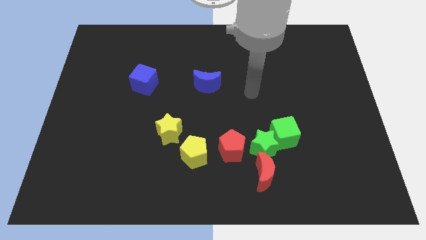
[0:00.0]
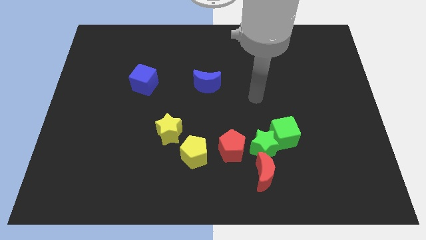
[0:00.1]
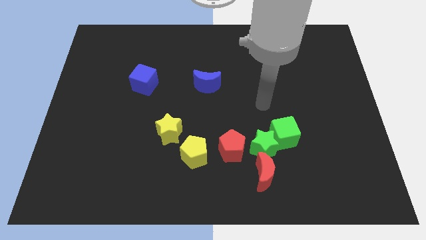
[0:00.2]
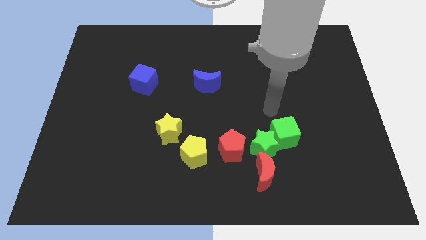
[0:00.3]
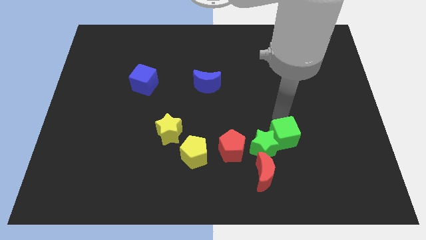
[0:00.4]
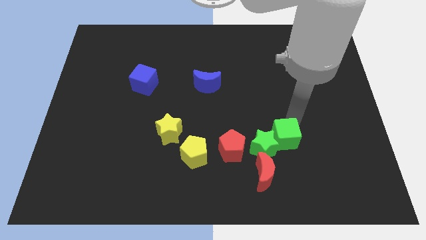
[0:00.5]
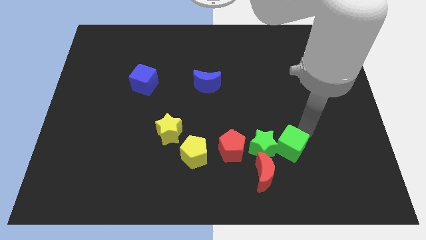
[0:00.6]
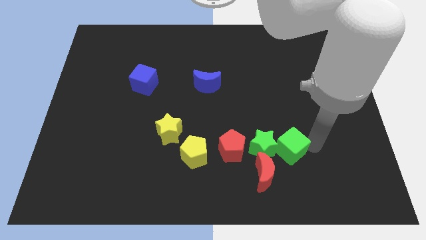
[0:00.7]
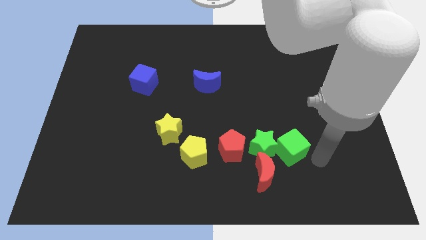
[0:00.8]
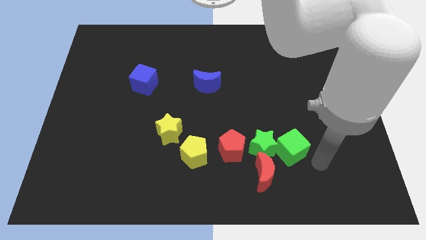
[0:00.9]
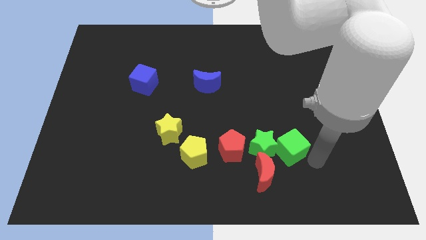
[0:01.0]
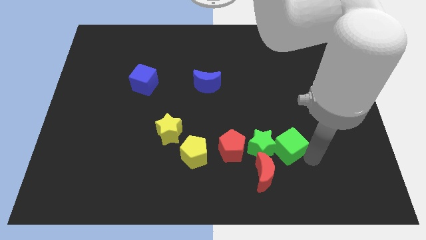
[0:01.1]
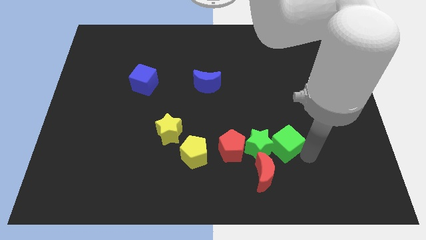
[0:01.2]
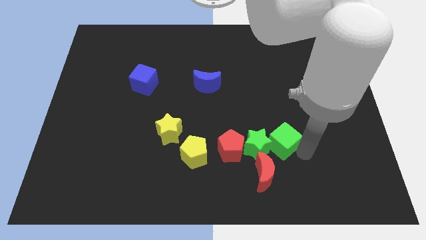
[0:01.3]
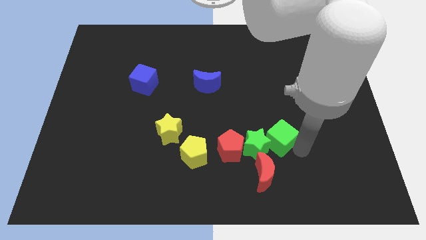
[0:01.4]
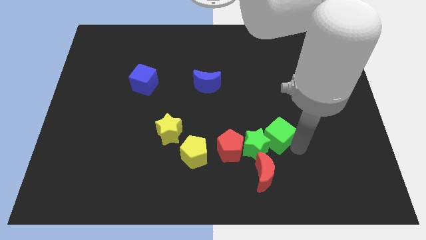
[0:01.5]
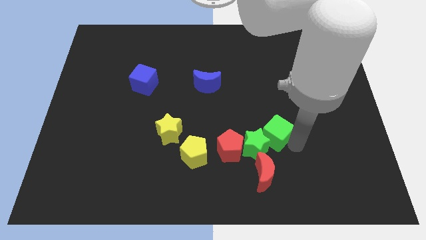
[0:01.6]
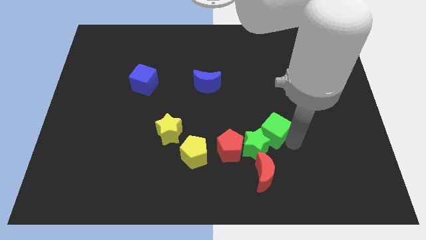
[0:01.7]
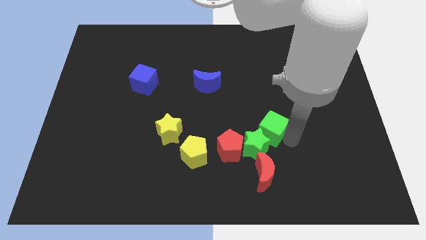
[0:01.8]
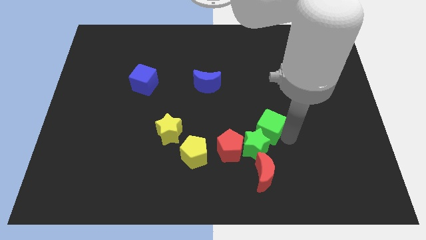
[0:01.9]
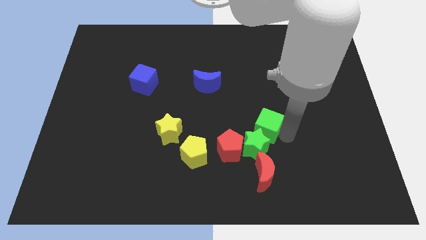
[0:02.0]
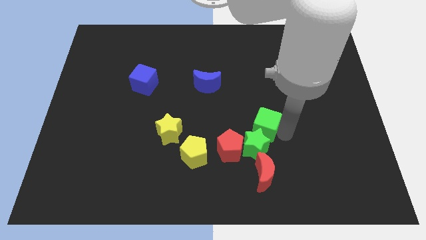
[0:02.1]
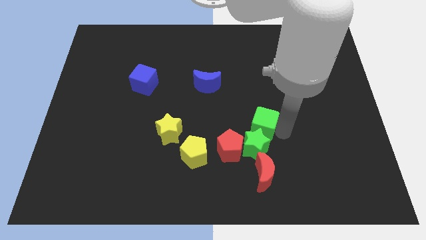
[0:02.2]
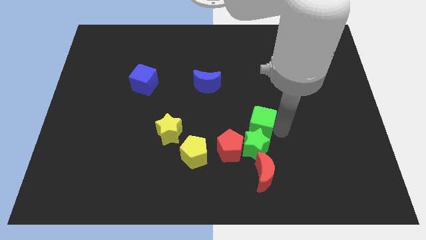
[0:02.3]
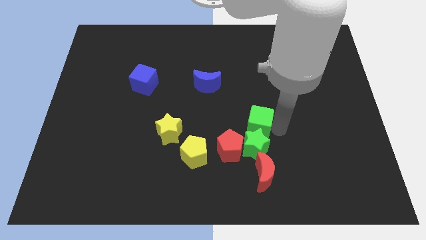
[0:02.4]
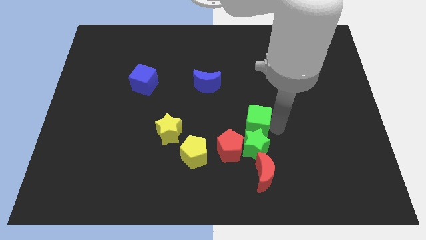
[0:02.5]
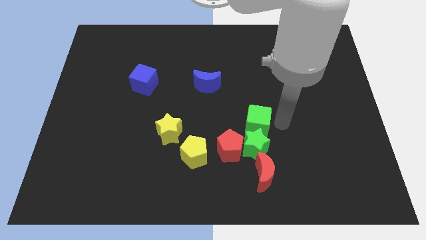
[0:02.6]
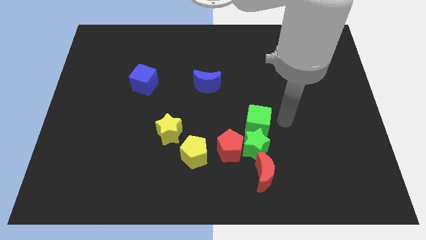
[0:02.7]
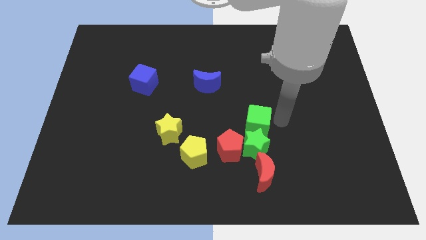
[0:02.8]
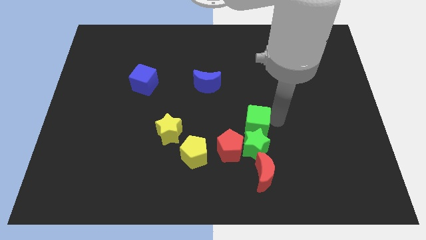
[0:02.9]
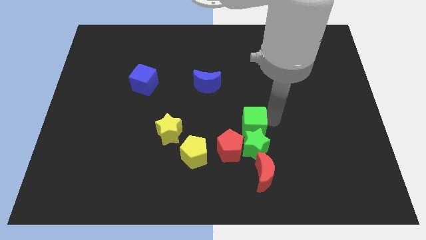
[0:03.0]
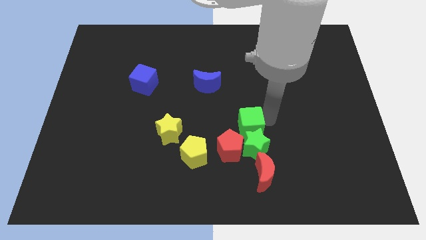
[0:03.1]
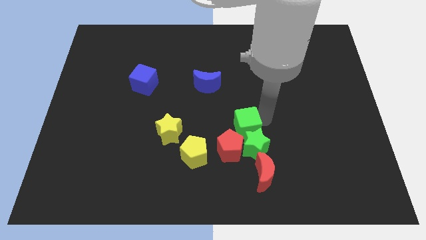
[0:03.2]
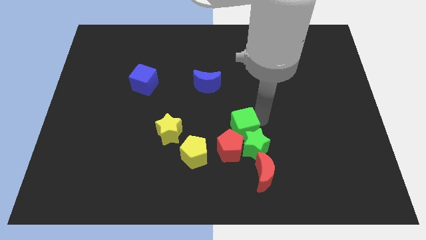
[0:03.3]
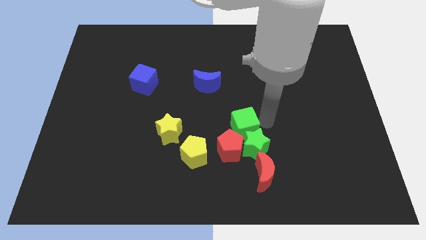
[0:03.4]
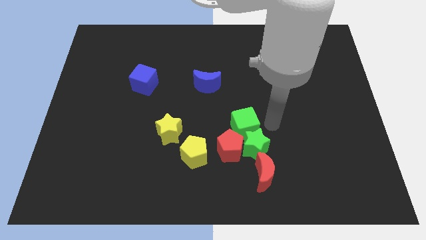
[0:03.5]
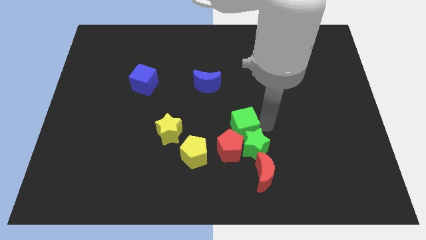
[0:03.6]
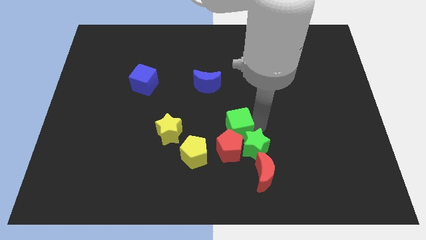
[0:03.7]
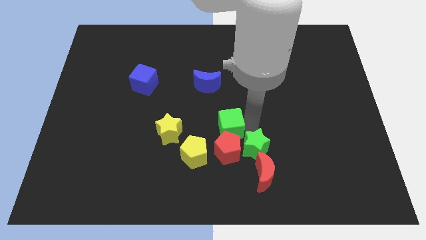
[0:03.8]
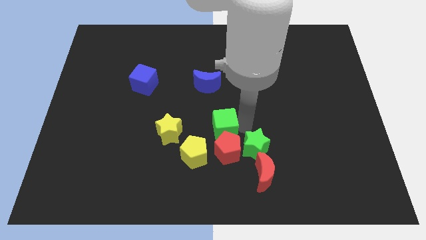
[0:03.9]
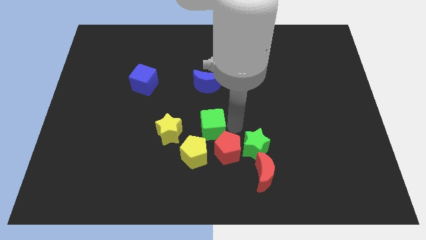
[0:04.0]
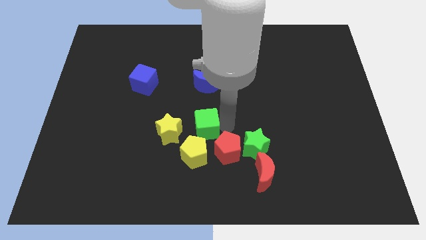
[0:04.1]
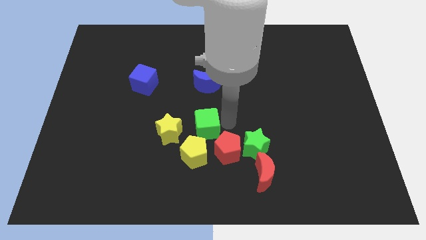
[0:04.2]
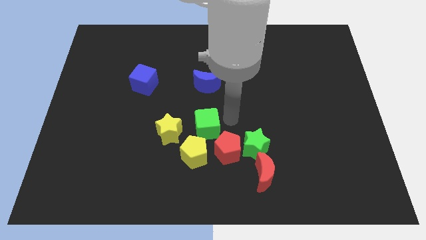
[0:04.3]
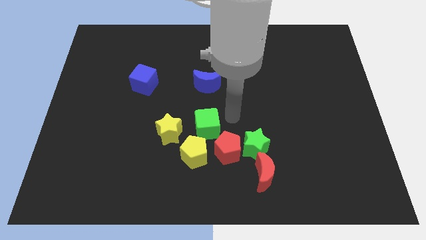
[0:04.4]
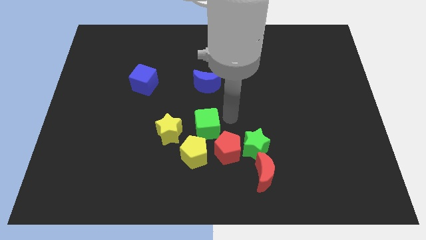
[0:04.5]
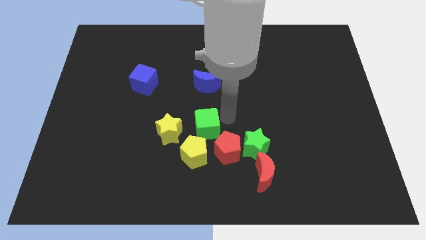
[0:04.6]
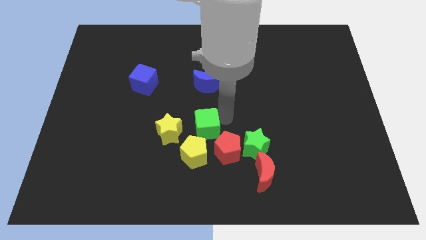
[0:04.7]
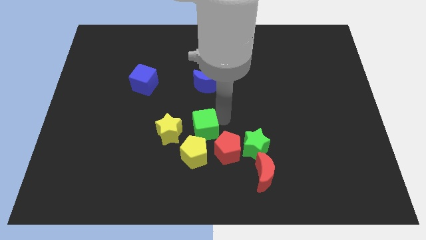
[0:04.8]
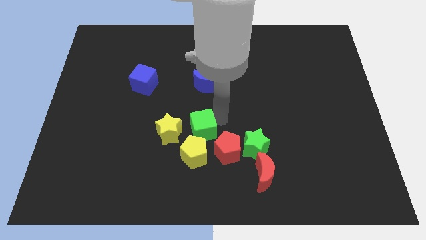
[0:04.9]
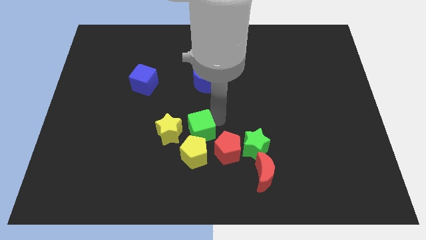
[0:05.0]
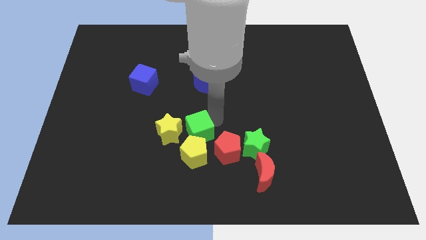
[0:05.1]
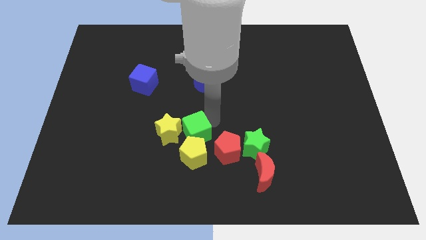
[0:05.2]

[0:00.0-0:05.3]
slide the green cube towards the yellow star
